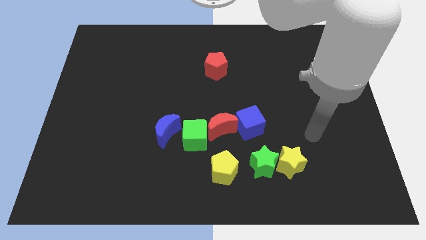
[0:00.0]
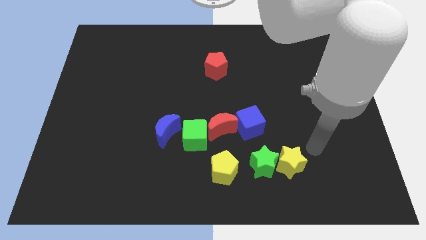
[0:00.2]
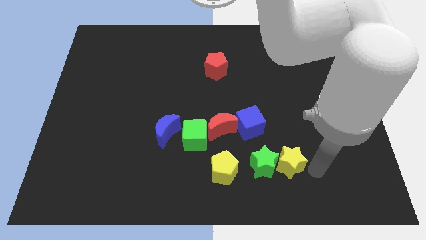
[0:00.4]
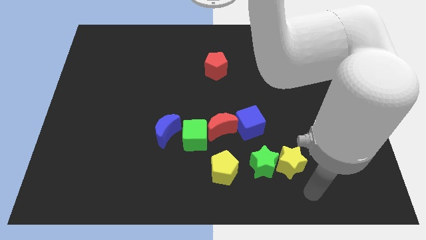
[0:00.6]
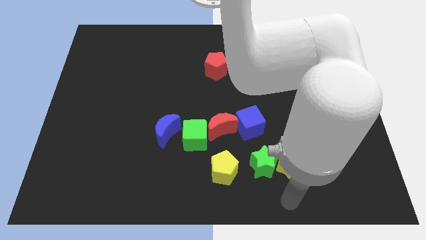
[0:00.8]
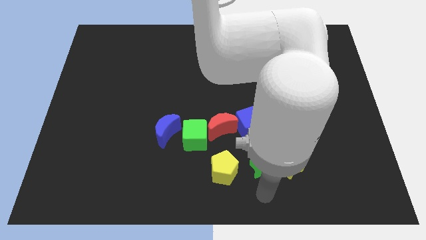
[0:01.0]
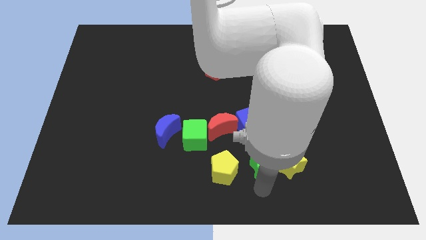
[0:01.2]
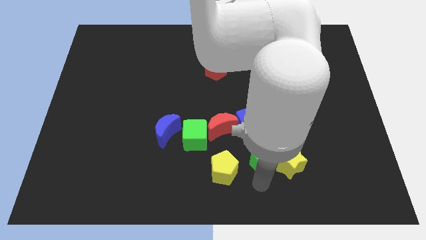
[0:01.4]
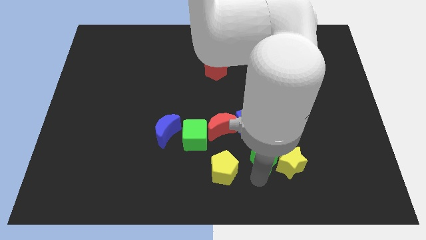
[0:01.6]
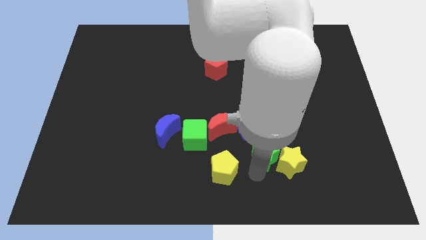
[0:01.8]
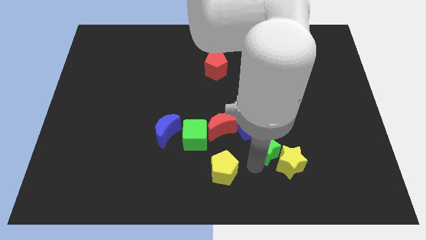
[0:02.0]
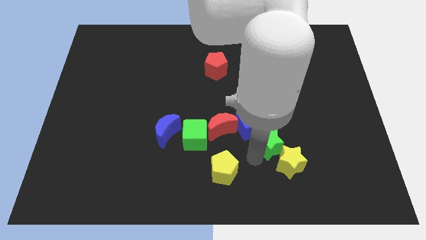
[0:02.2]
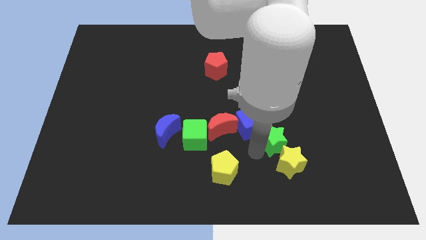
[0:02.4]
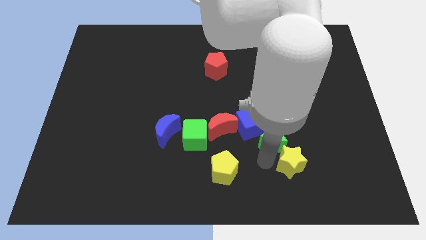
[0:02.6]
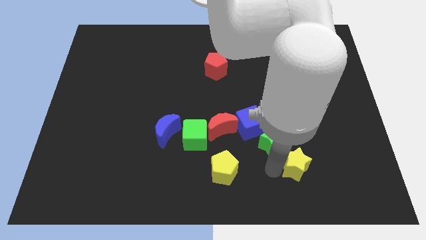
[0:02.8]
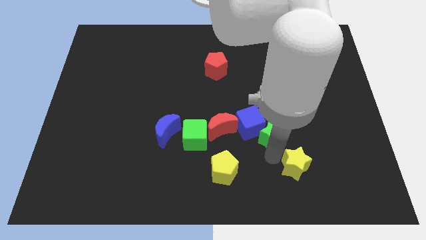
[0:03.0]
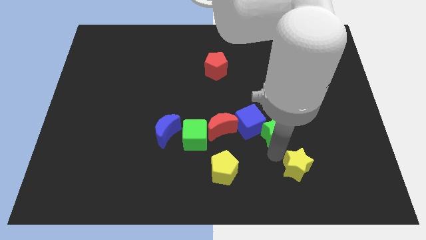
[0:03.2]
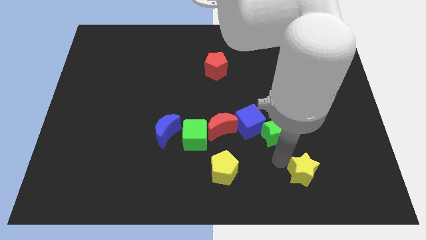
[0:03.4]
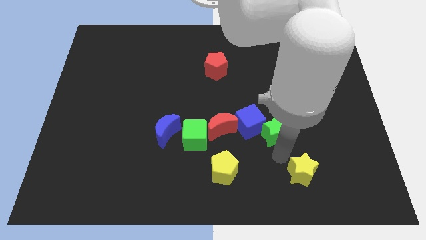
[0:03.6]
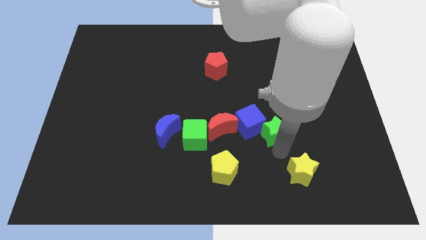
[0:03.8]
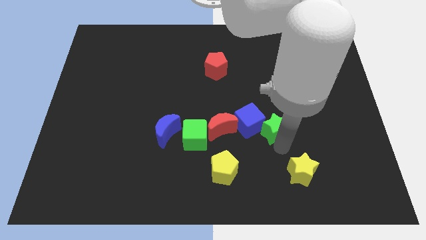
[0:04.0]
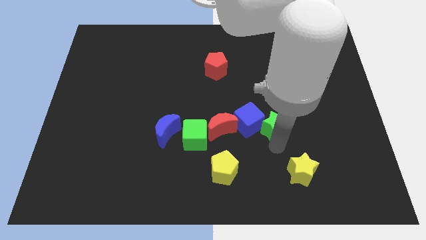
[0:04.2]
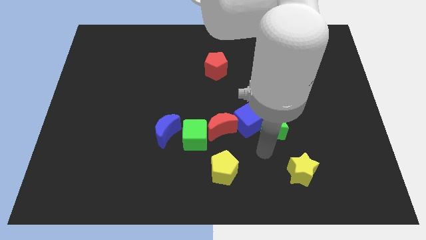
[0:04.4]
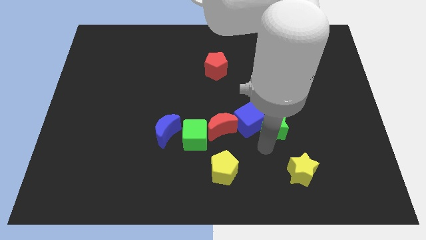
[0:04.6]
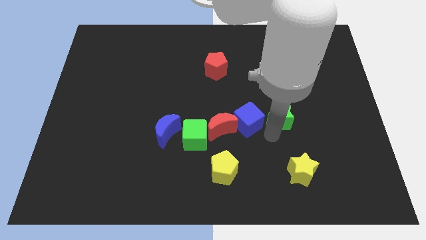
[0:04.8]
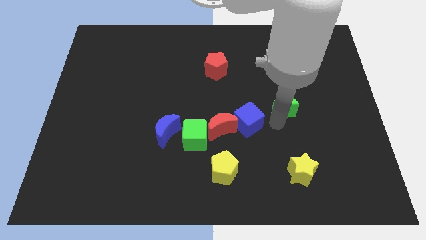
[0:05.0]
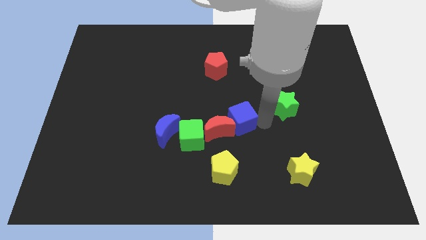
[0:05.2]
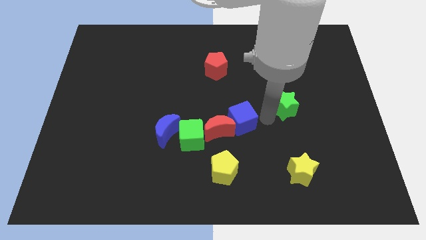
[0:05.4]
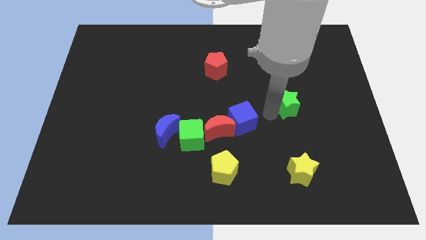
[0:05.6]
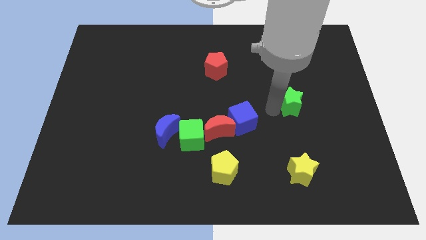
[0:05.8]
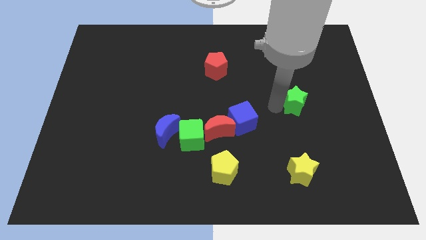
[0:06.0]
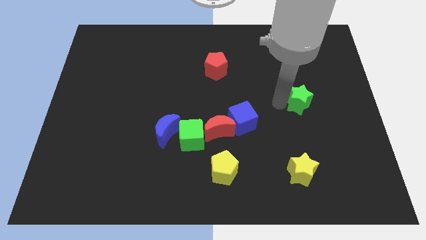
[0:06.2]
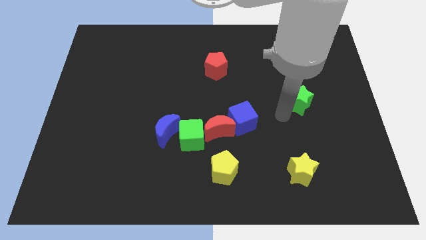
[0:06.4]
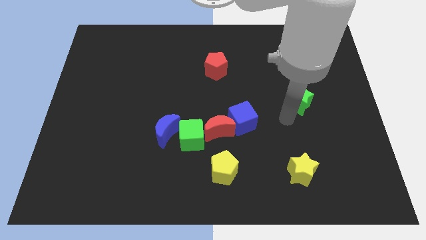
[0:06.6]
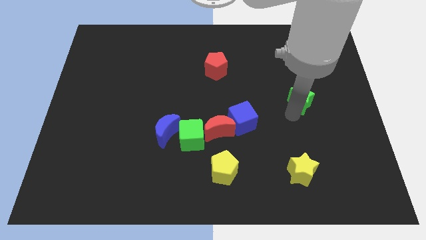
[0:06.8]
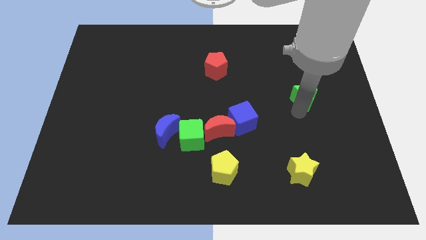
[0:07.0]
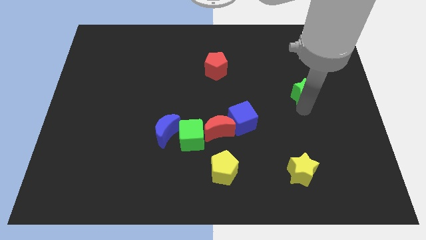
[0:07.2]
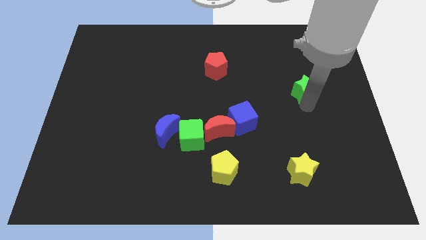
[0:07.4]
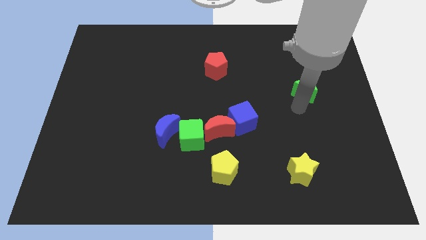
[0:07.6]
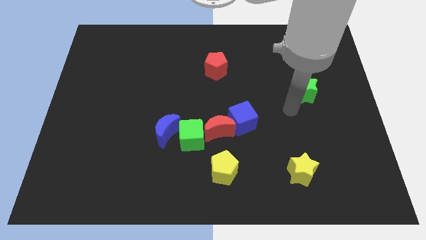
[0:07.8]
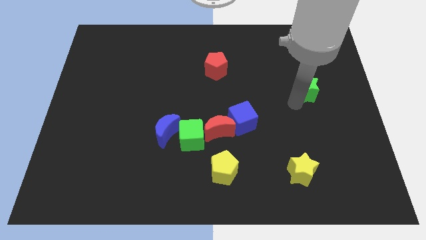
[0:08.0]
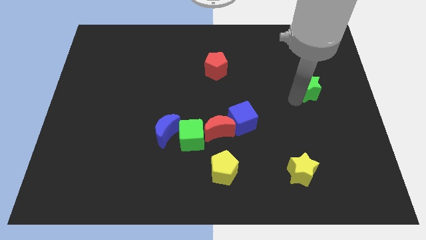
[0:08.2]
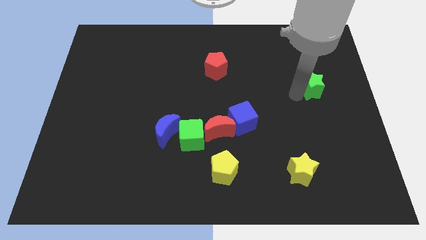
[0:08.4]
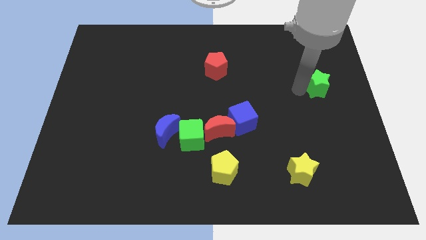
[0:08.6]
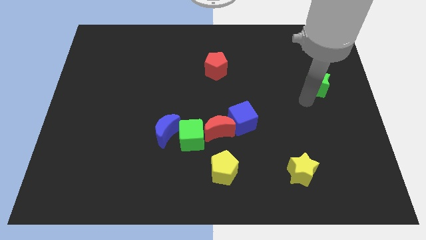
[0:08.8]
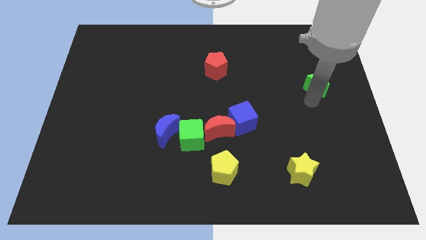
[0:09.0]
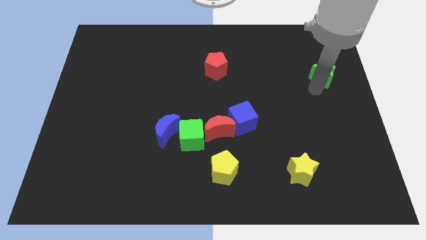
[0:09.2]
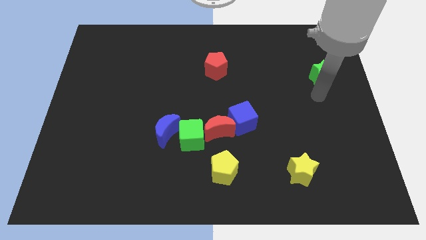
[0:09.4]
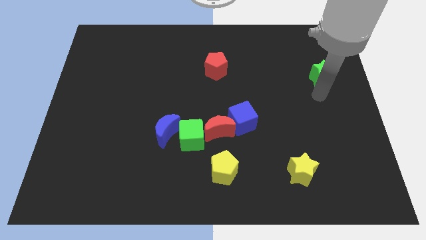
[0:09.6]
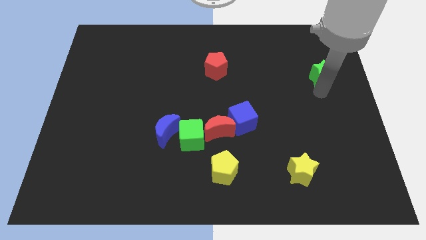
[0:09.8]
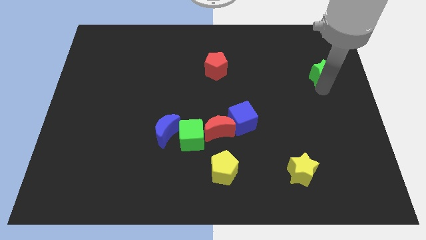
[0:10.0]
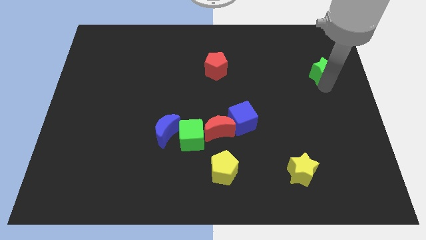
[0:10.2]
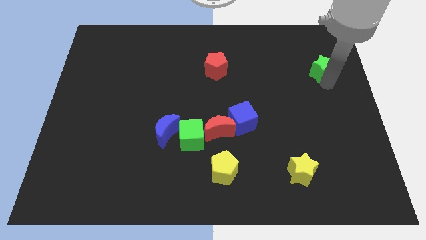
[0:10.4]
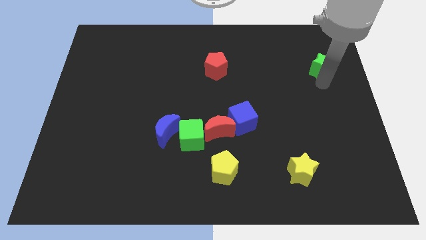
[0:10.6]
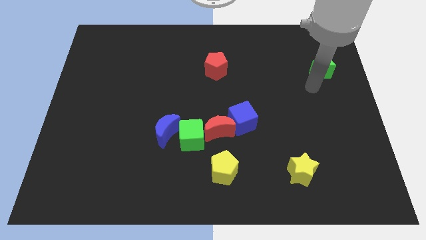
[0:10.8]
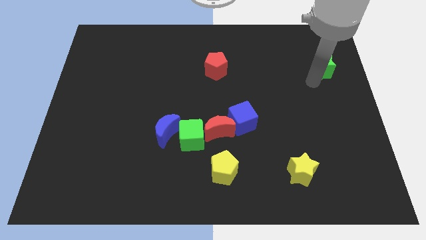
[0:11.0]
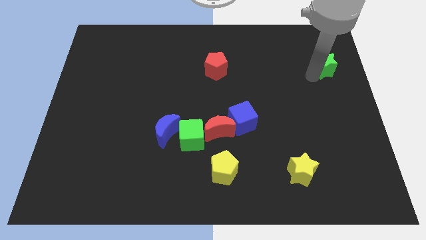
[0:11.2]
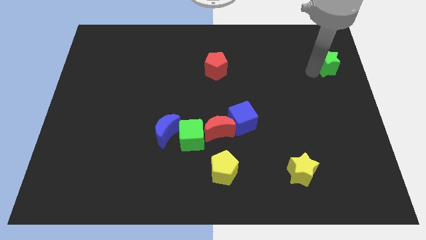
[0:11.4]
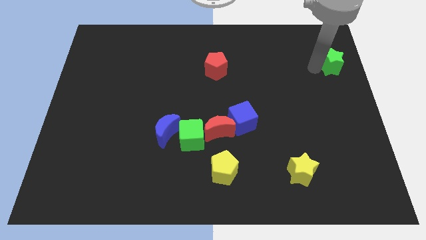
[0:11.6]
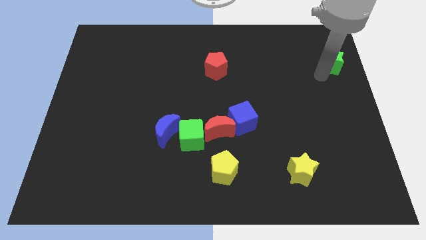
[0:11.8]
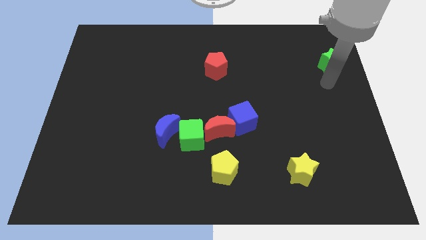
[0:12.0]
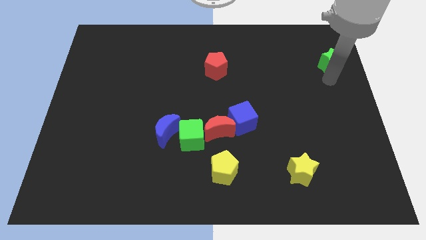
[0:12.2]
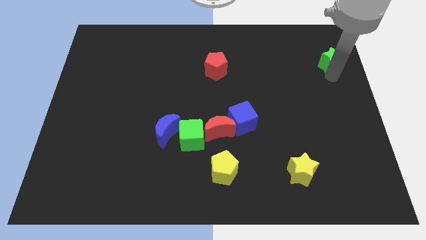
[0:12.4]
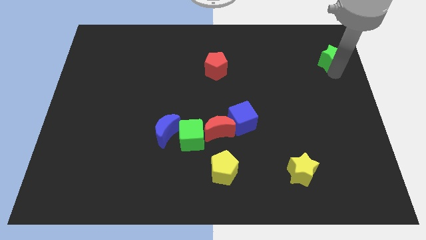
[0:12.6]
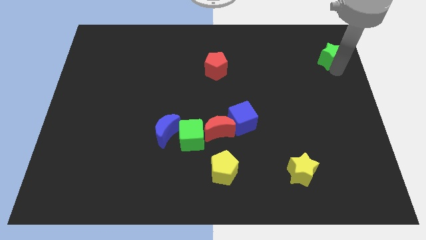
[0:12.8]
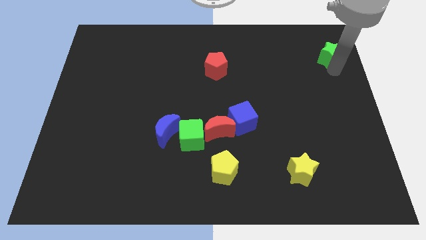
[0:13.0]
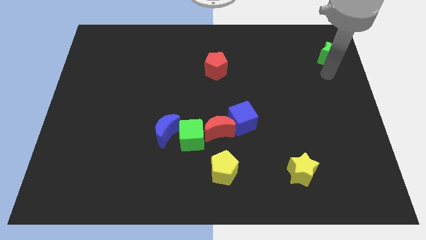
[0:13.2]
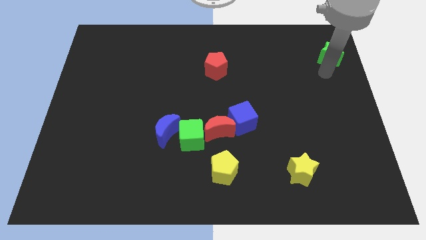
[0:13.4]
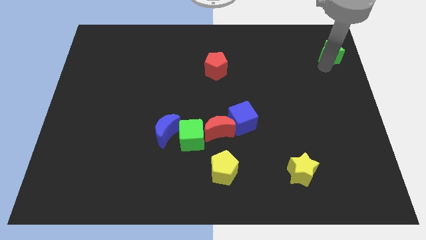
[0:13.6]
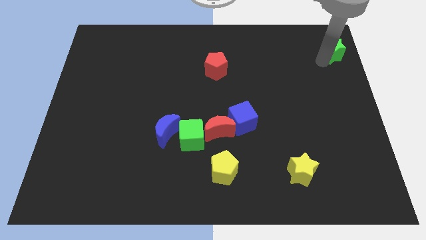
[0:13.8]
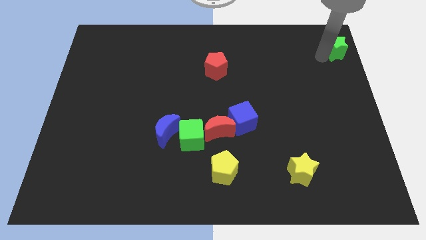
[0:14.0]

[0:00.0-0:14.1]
slide the green star to the upper right corner
